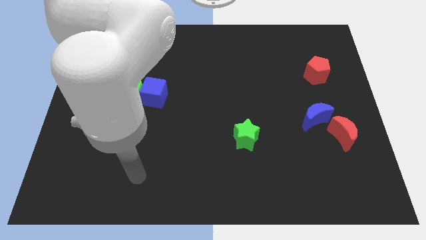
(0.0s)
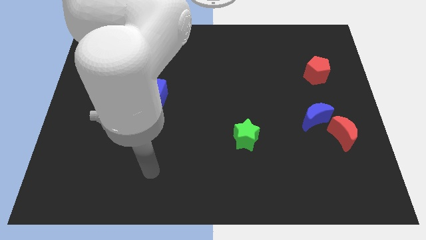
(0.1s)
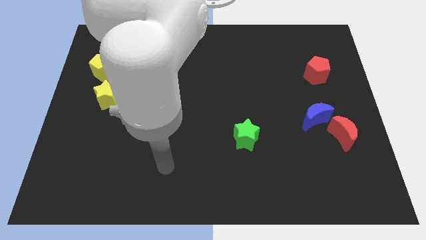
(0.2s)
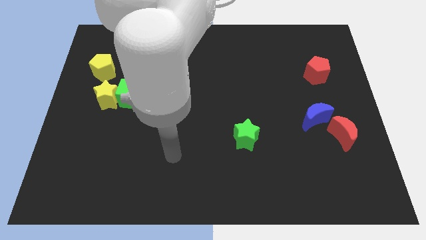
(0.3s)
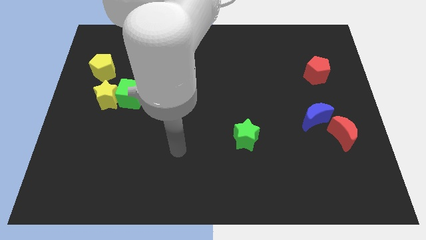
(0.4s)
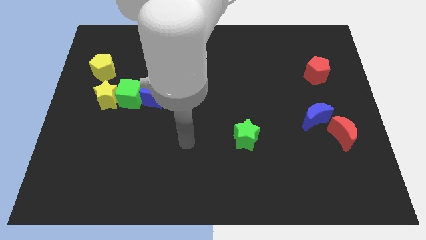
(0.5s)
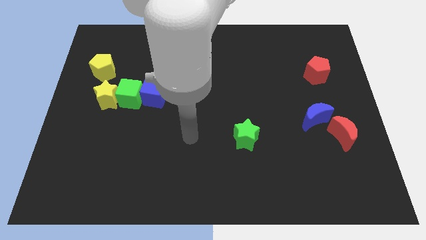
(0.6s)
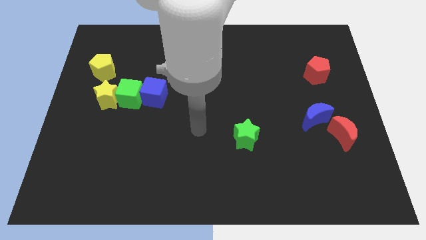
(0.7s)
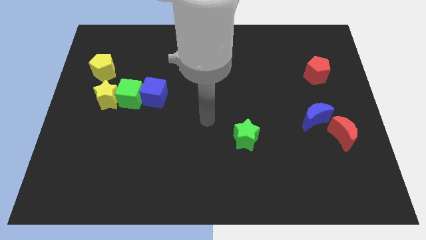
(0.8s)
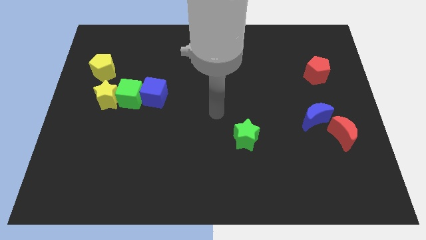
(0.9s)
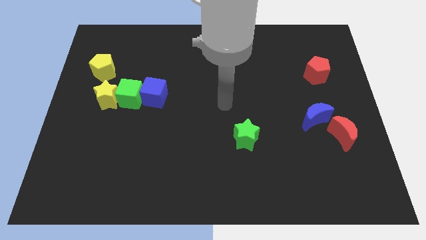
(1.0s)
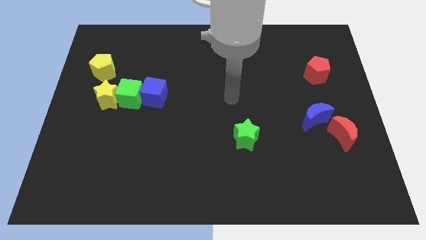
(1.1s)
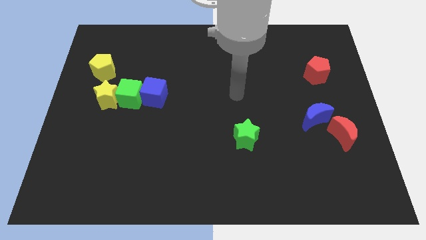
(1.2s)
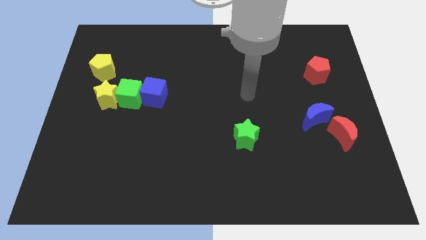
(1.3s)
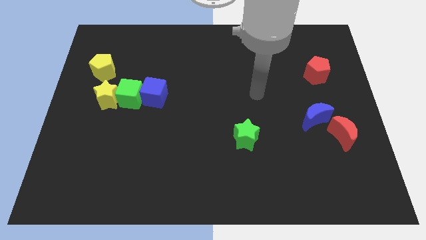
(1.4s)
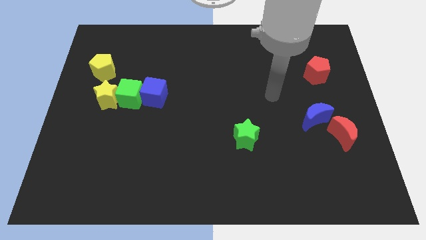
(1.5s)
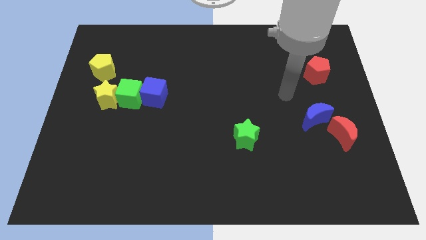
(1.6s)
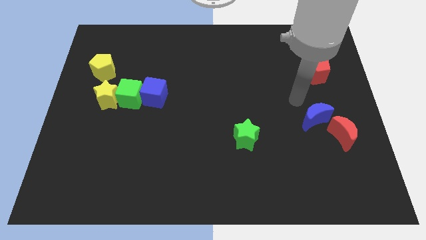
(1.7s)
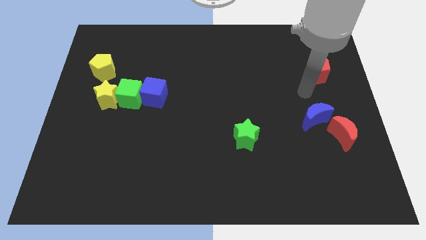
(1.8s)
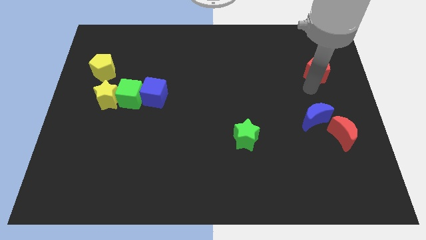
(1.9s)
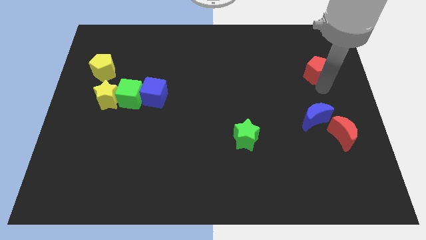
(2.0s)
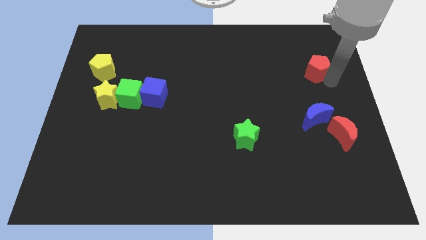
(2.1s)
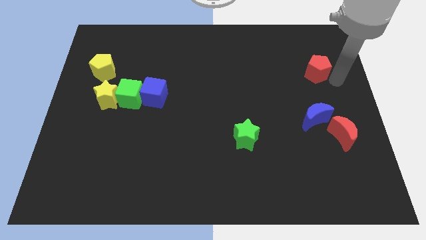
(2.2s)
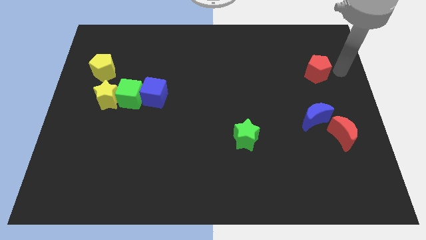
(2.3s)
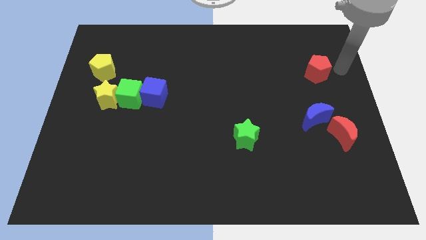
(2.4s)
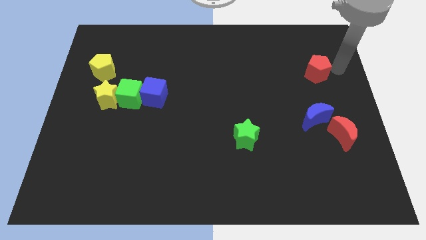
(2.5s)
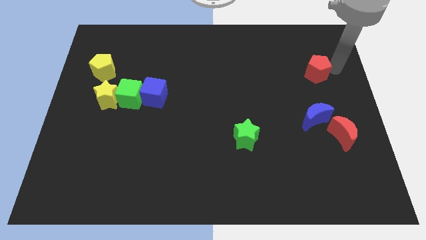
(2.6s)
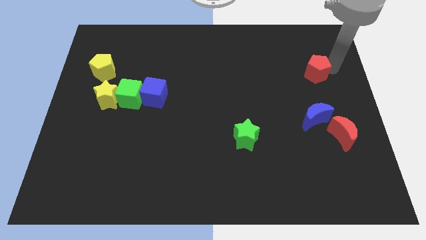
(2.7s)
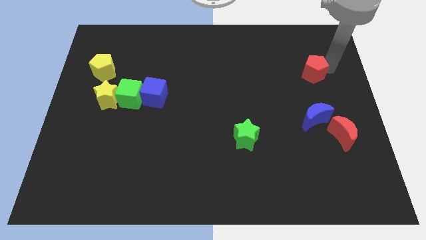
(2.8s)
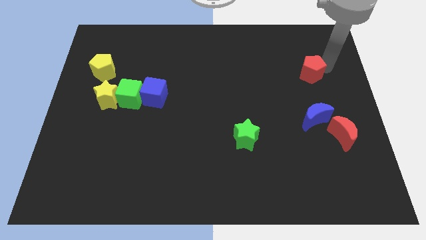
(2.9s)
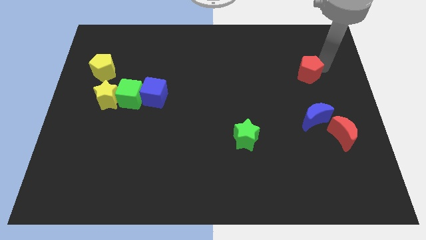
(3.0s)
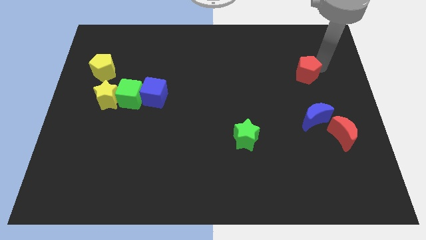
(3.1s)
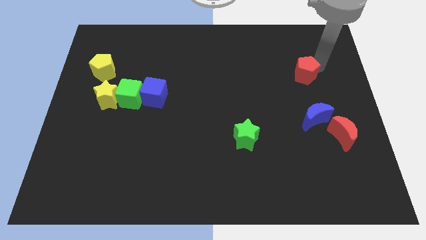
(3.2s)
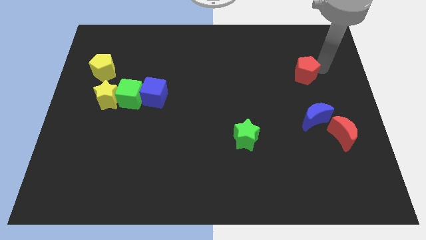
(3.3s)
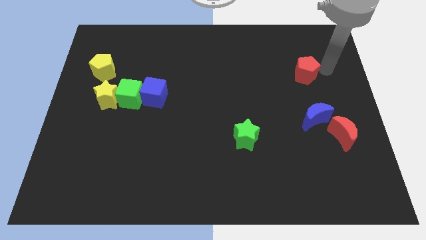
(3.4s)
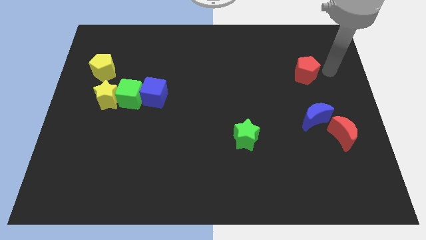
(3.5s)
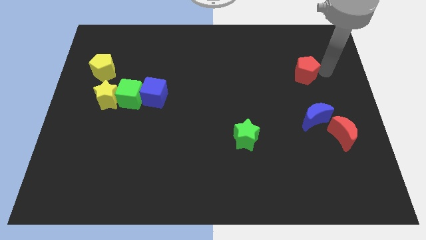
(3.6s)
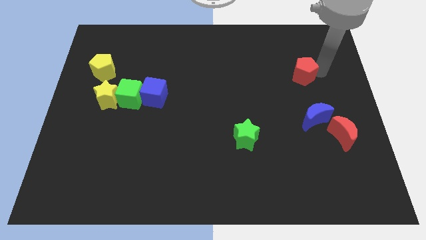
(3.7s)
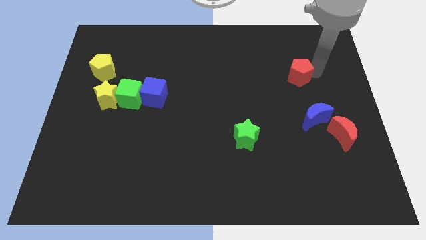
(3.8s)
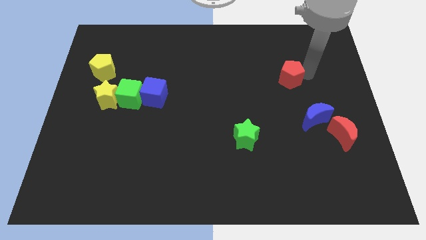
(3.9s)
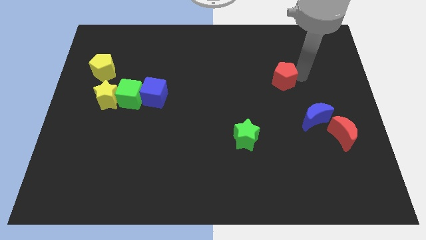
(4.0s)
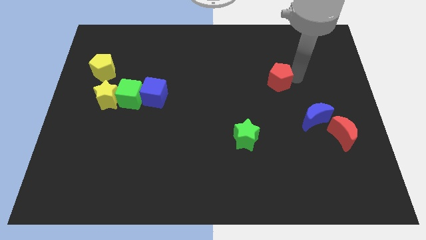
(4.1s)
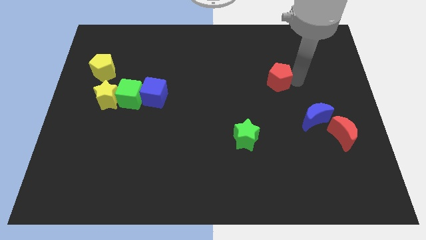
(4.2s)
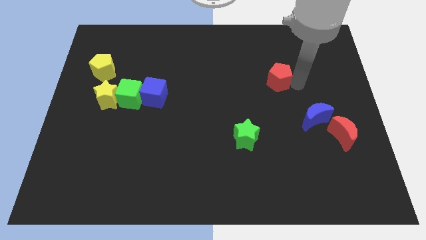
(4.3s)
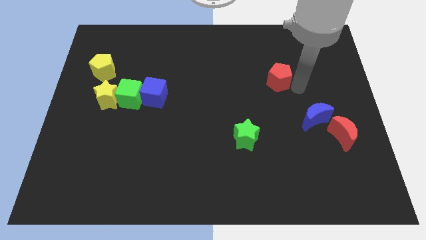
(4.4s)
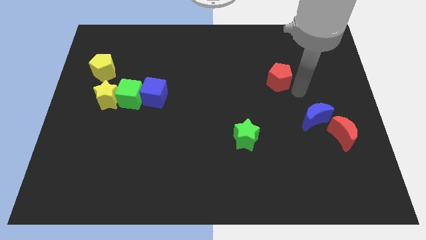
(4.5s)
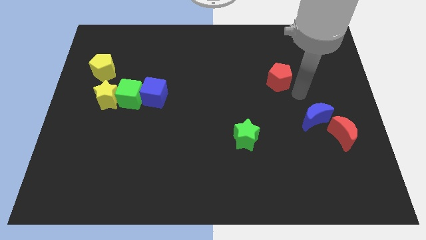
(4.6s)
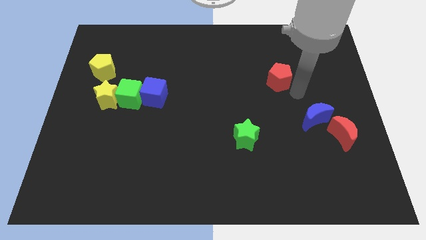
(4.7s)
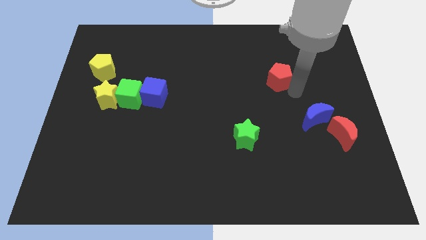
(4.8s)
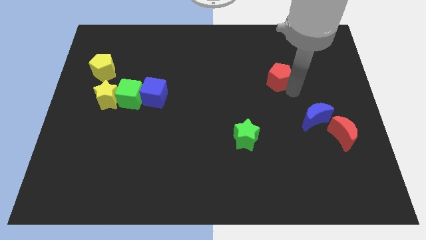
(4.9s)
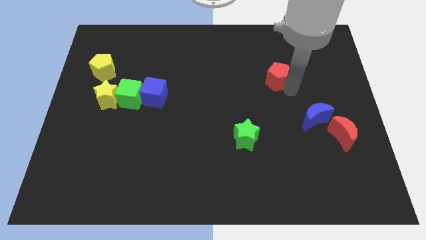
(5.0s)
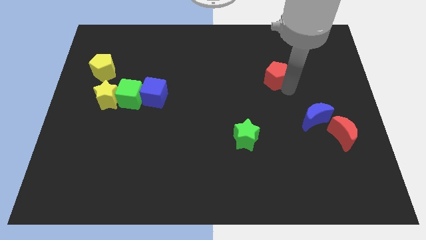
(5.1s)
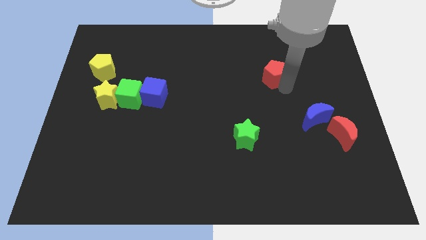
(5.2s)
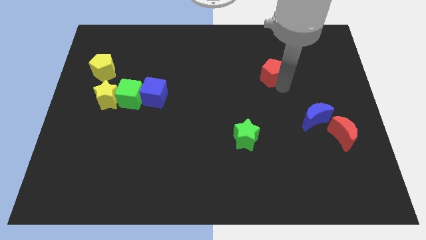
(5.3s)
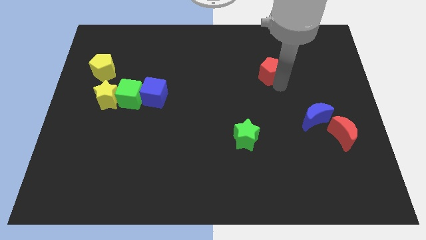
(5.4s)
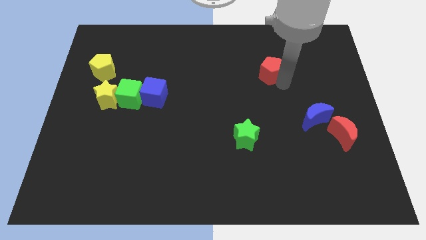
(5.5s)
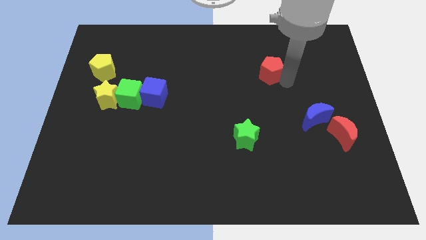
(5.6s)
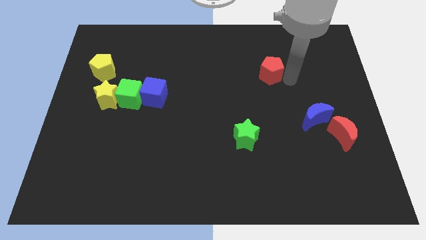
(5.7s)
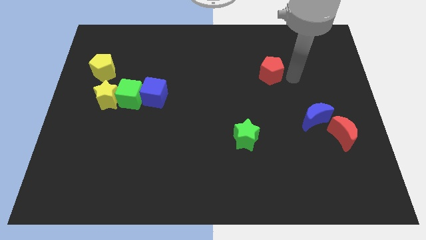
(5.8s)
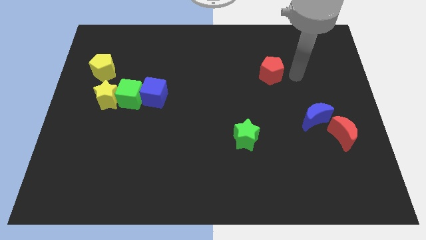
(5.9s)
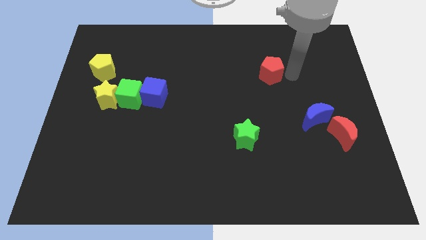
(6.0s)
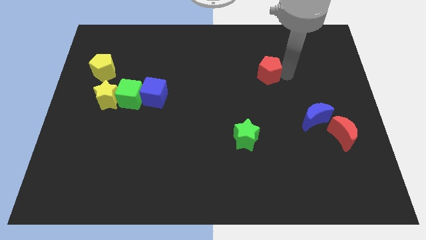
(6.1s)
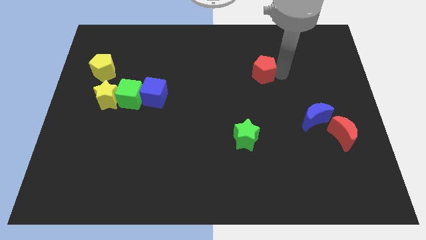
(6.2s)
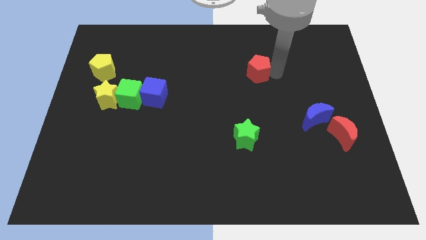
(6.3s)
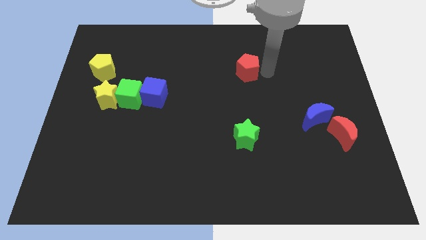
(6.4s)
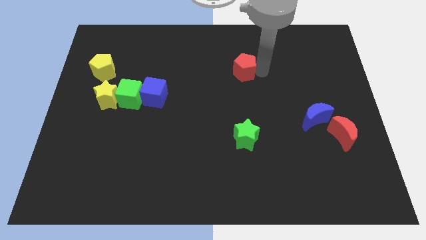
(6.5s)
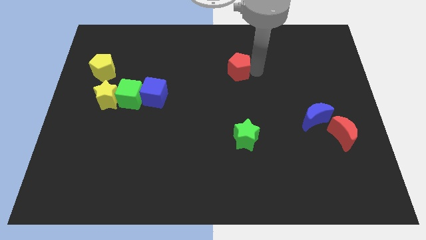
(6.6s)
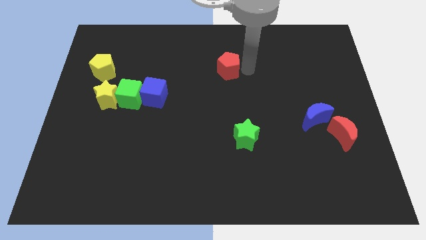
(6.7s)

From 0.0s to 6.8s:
move the red pentagon left

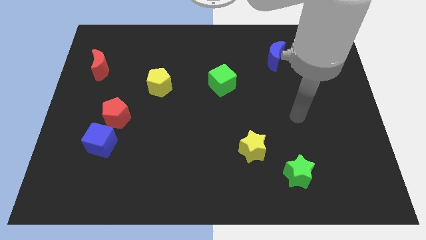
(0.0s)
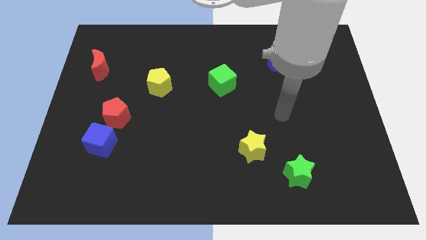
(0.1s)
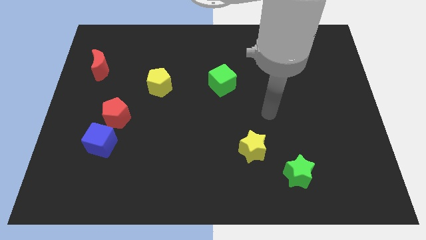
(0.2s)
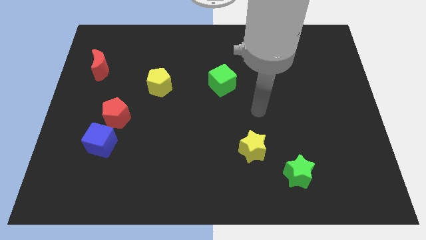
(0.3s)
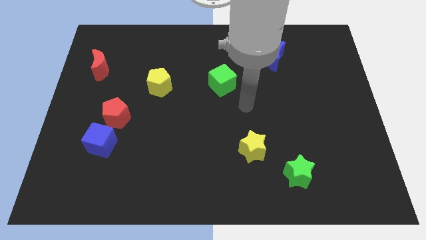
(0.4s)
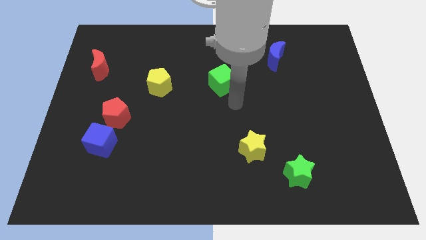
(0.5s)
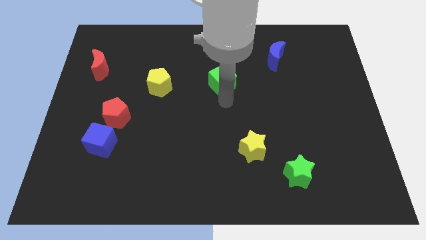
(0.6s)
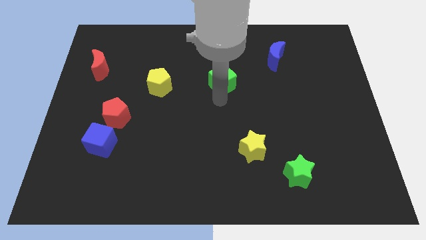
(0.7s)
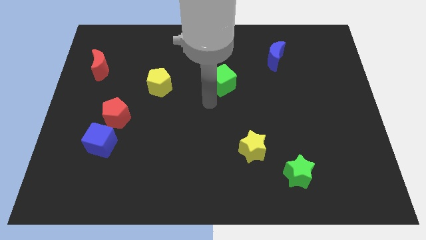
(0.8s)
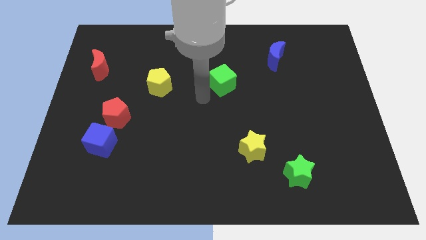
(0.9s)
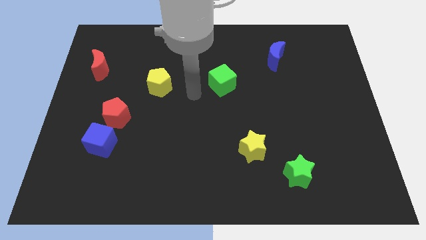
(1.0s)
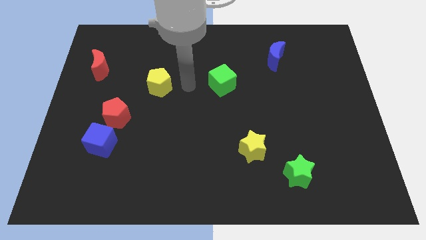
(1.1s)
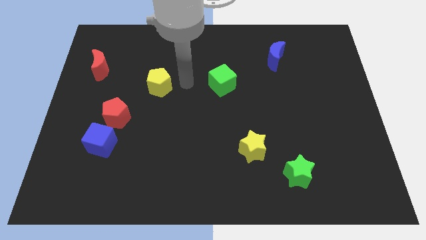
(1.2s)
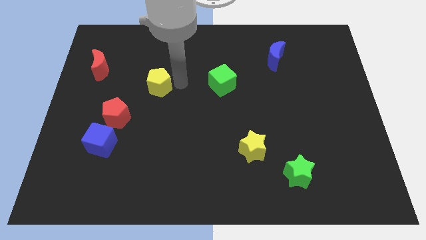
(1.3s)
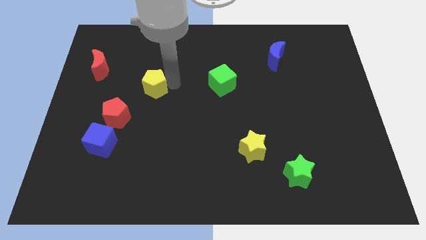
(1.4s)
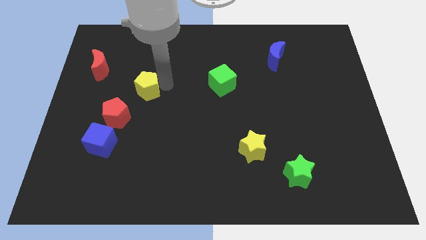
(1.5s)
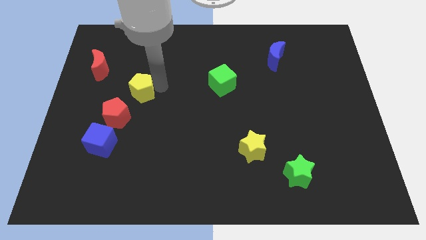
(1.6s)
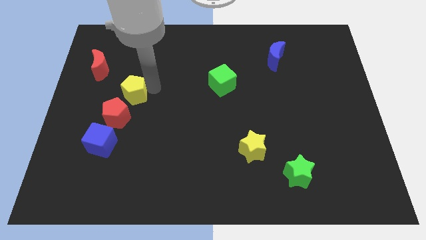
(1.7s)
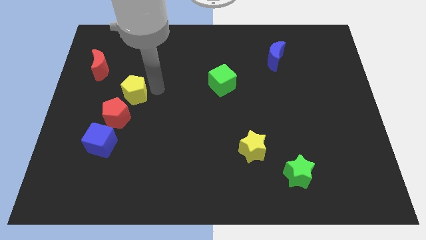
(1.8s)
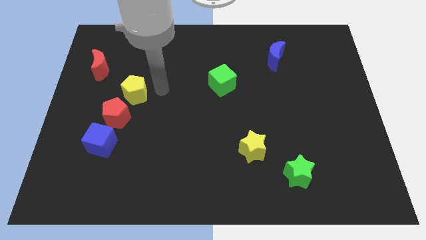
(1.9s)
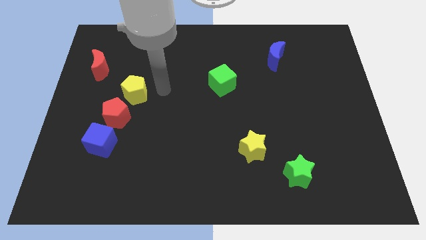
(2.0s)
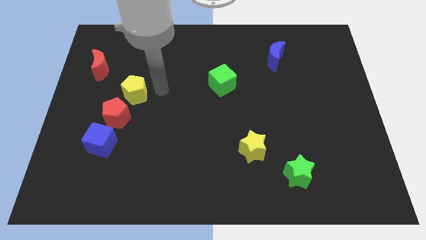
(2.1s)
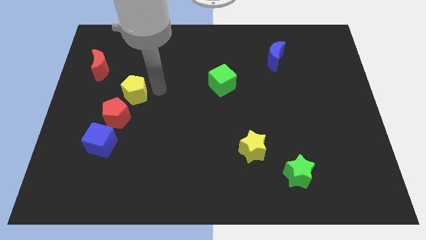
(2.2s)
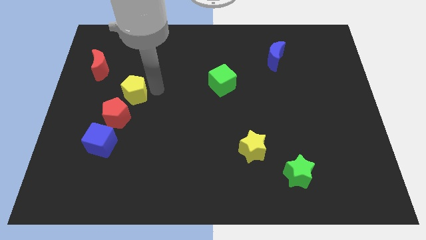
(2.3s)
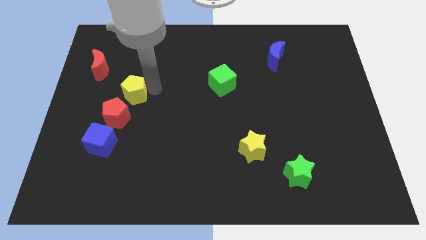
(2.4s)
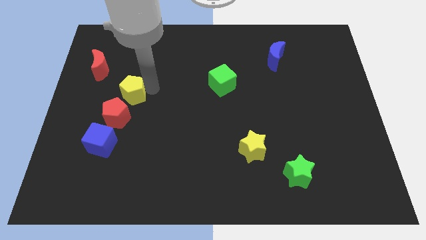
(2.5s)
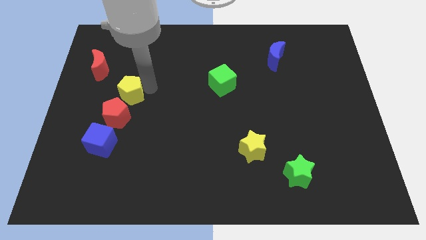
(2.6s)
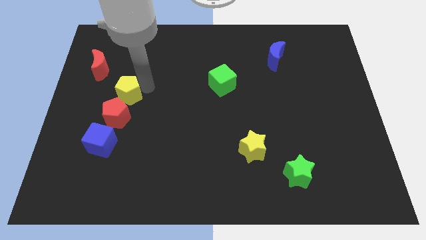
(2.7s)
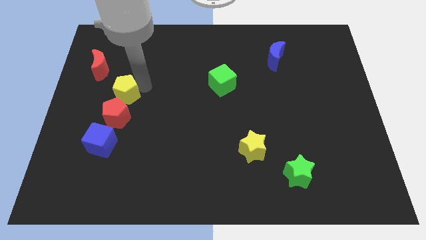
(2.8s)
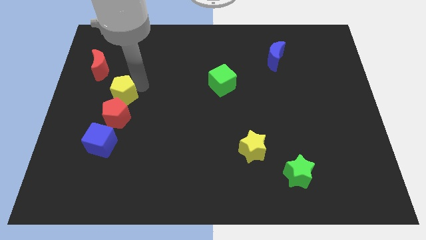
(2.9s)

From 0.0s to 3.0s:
slightly slide the yellow pentagon diagonally down and left
